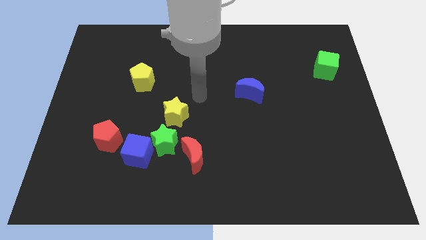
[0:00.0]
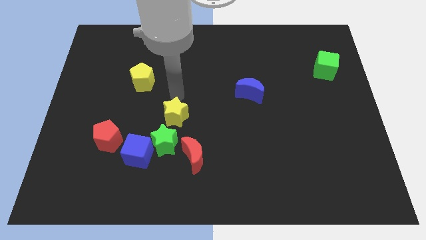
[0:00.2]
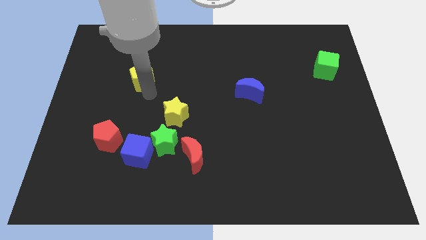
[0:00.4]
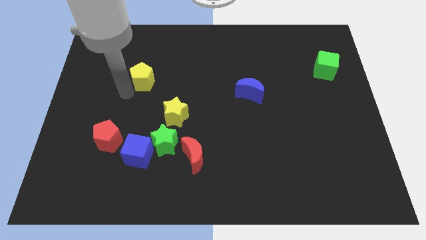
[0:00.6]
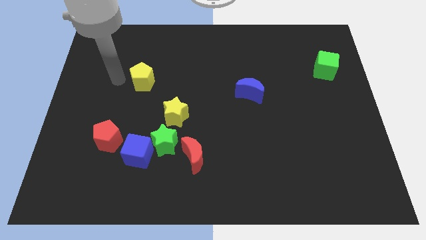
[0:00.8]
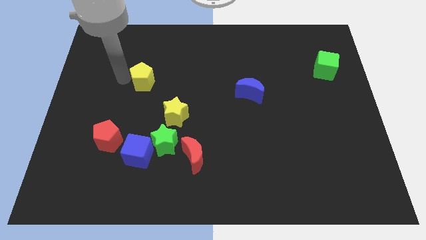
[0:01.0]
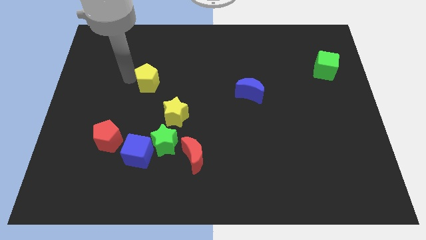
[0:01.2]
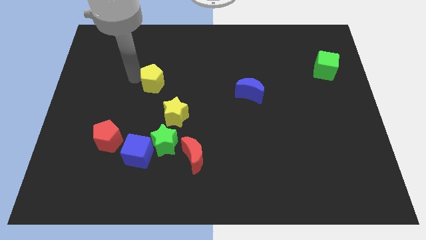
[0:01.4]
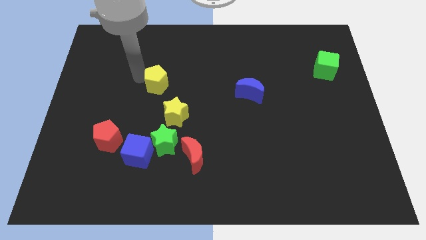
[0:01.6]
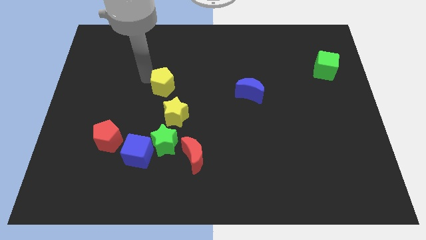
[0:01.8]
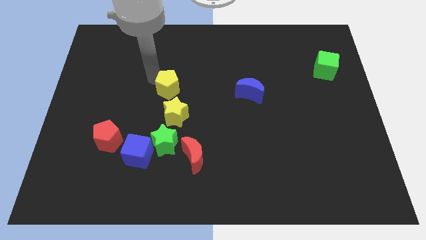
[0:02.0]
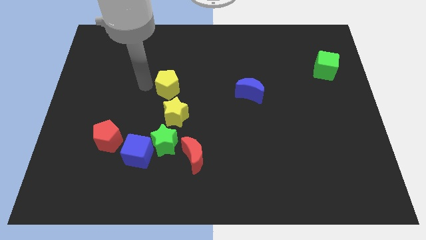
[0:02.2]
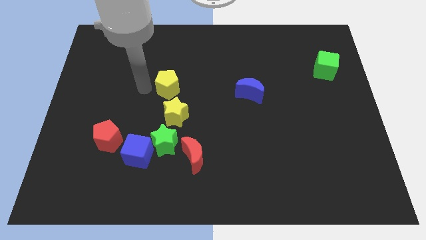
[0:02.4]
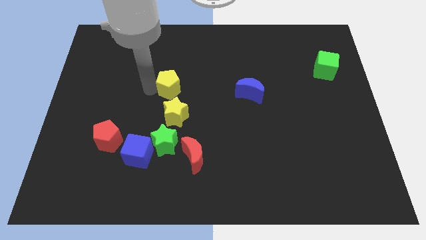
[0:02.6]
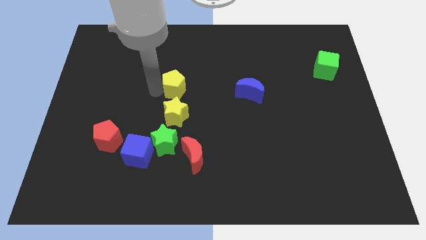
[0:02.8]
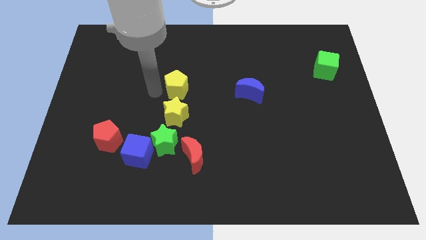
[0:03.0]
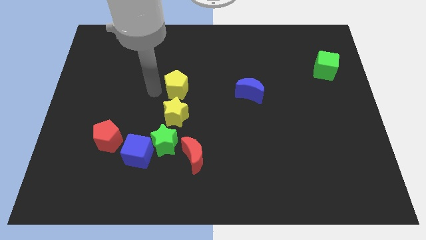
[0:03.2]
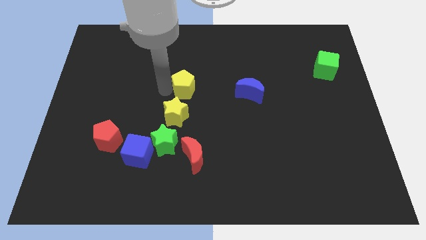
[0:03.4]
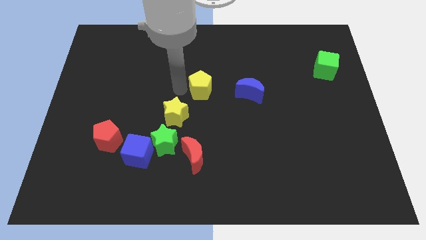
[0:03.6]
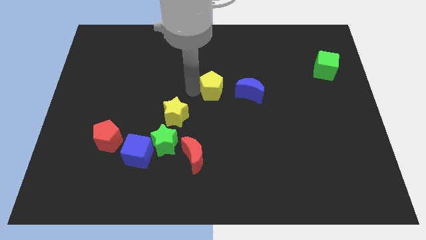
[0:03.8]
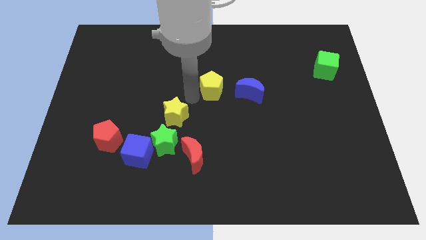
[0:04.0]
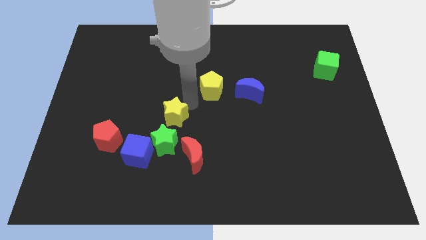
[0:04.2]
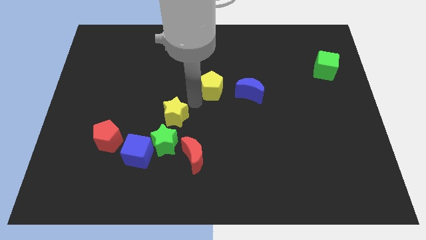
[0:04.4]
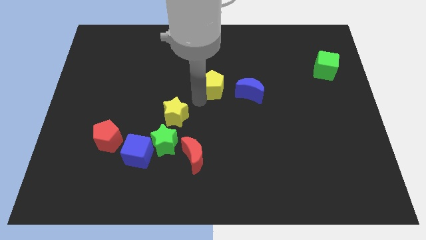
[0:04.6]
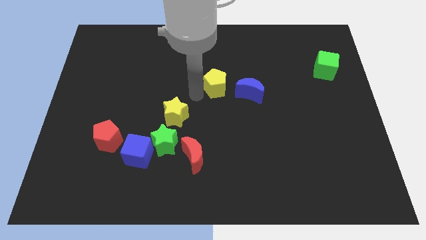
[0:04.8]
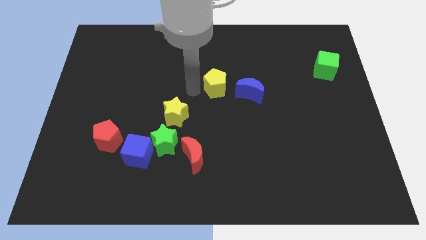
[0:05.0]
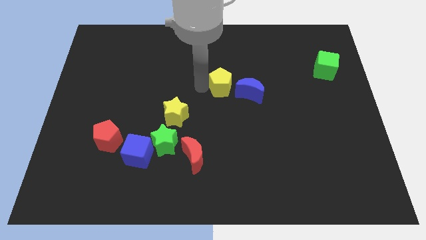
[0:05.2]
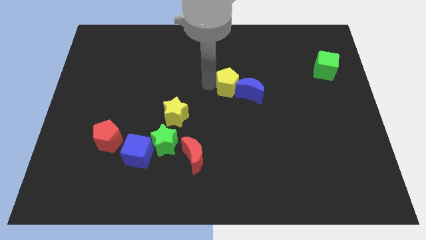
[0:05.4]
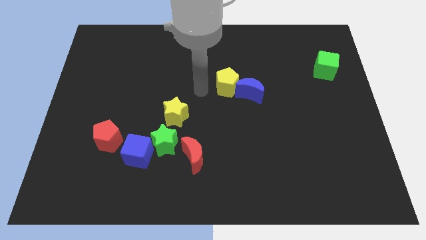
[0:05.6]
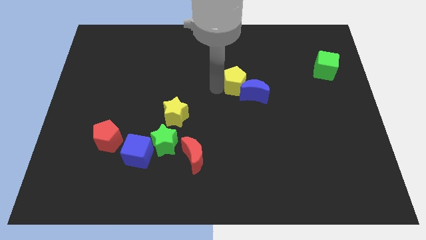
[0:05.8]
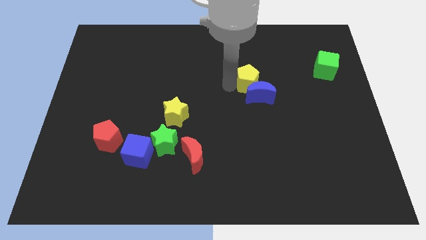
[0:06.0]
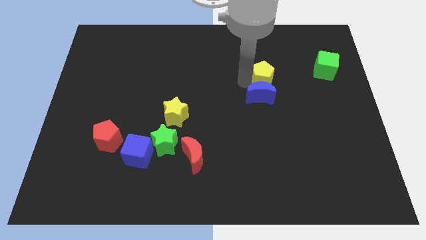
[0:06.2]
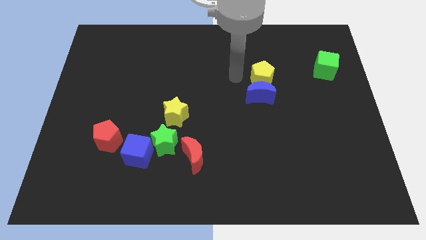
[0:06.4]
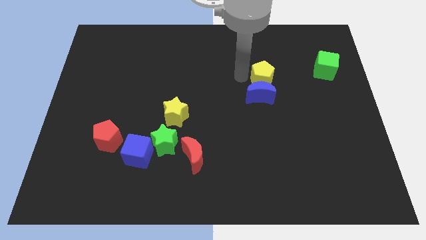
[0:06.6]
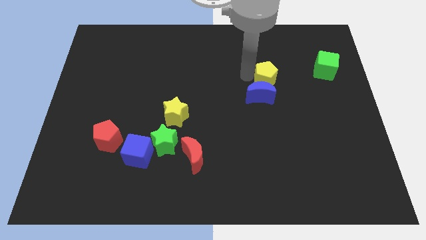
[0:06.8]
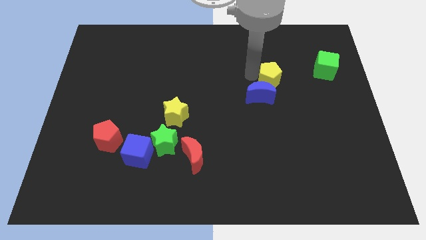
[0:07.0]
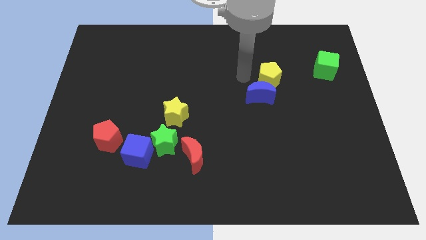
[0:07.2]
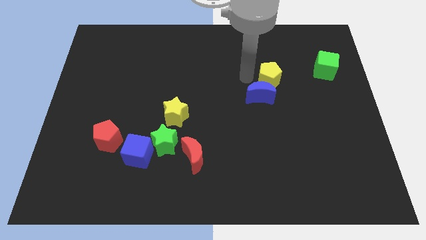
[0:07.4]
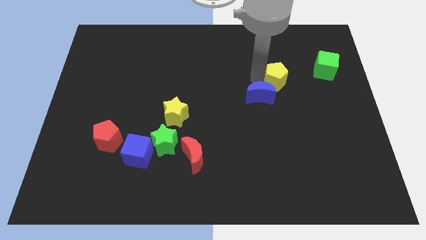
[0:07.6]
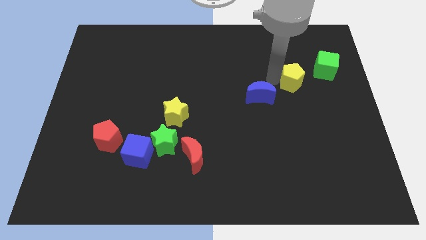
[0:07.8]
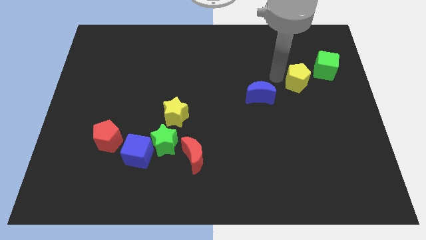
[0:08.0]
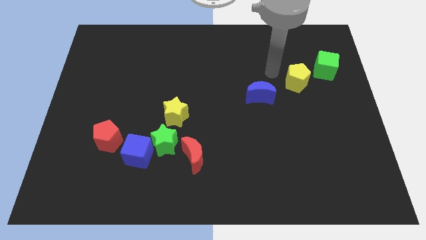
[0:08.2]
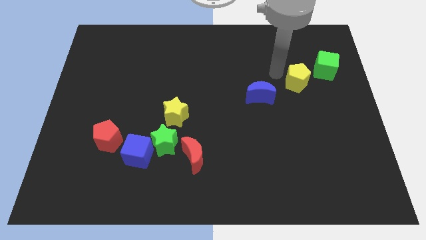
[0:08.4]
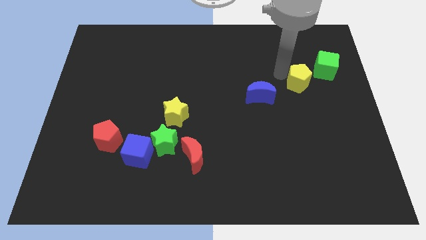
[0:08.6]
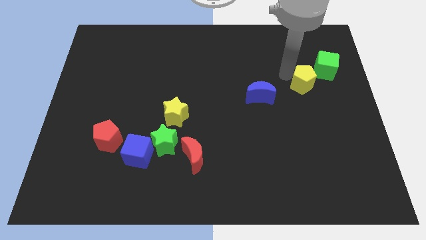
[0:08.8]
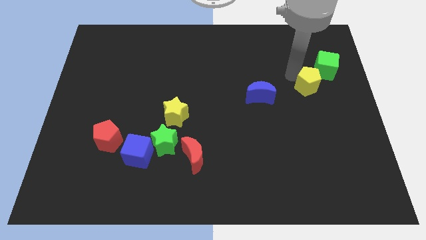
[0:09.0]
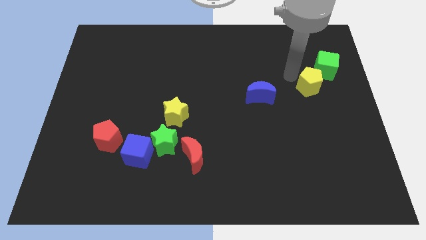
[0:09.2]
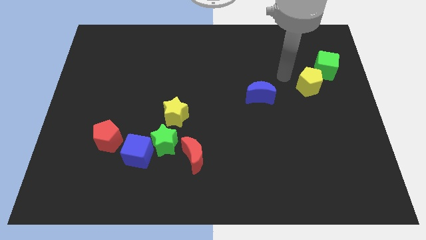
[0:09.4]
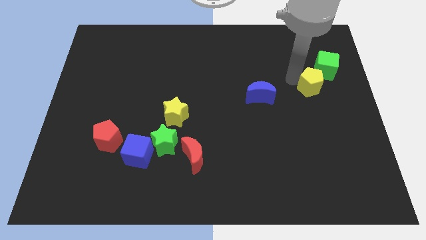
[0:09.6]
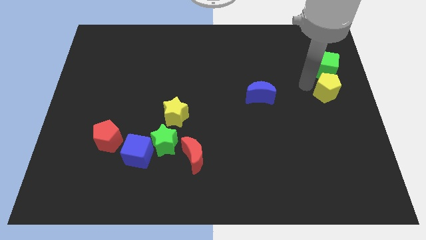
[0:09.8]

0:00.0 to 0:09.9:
put the yellow pentagon to the right side

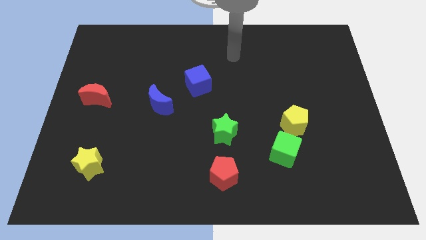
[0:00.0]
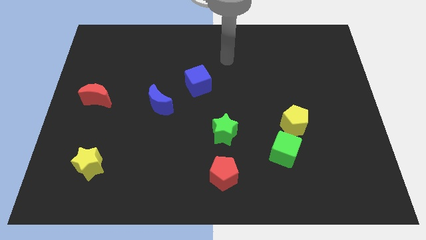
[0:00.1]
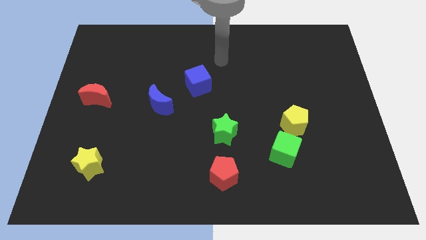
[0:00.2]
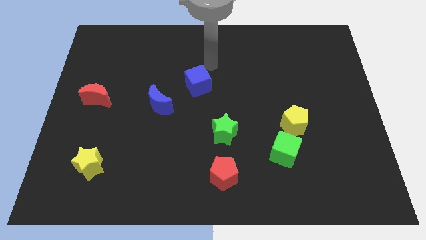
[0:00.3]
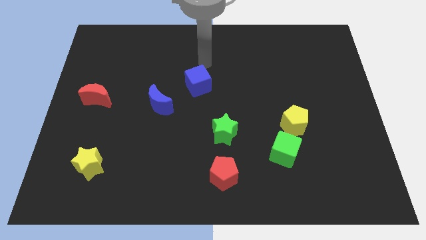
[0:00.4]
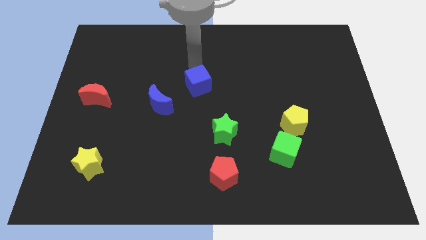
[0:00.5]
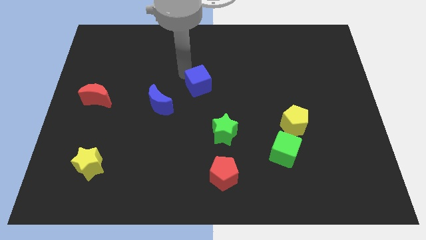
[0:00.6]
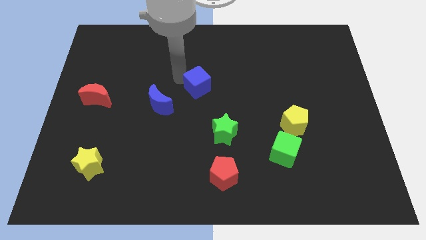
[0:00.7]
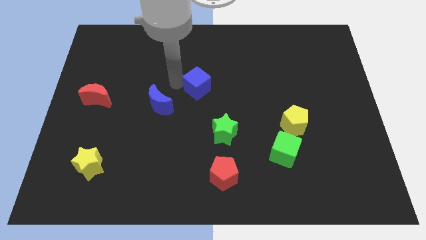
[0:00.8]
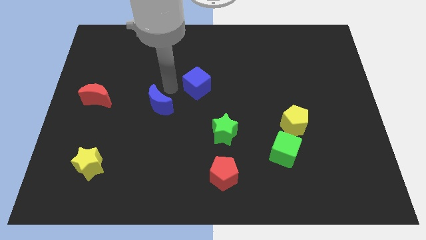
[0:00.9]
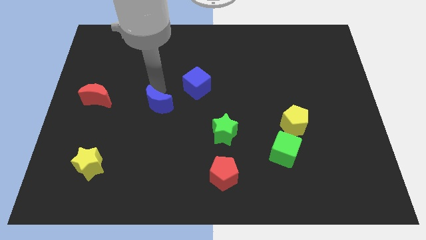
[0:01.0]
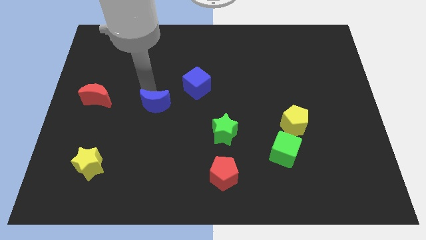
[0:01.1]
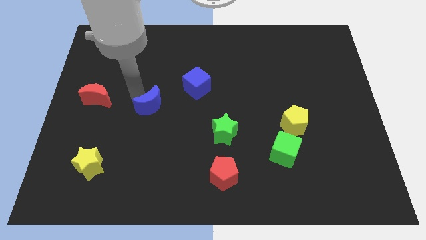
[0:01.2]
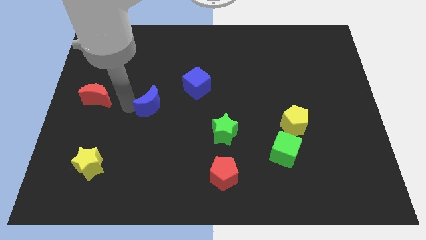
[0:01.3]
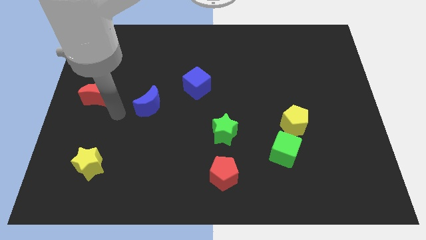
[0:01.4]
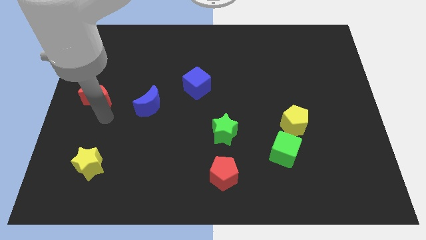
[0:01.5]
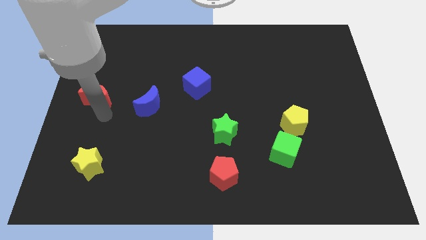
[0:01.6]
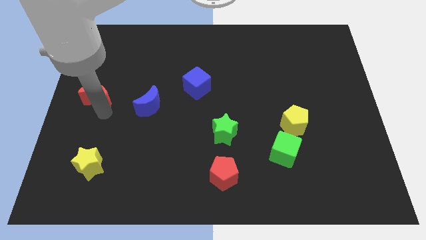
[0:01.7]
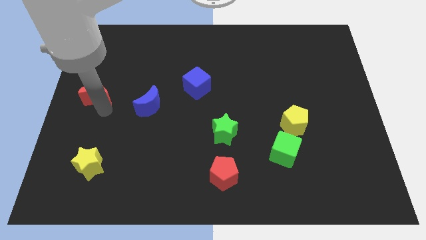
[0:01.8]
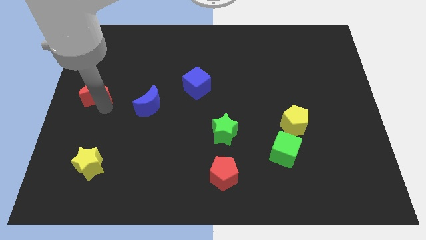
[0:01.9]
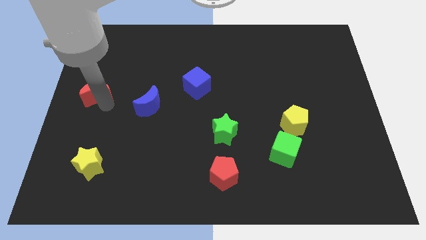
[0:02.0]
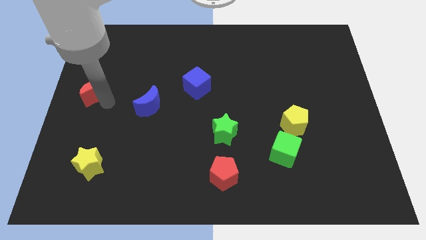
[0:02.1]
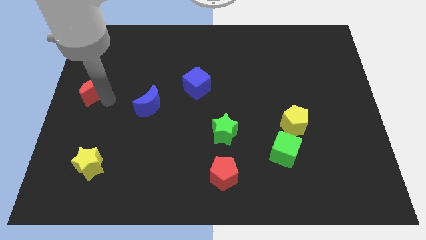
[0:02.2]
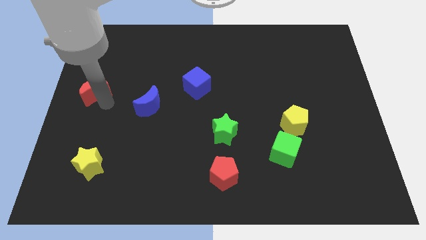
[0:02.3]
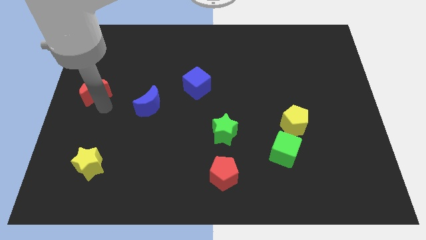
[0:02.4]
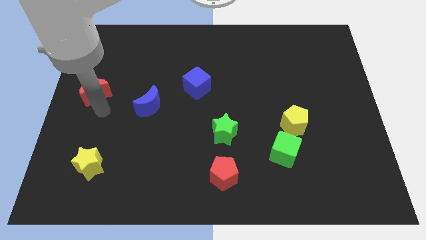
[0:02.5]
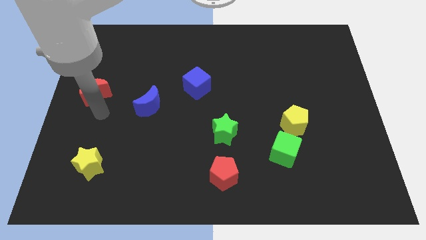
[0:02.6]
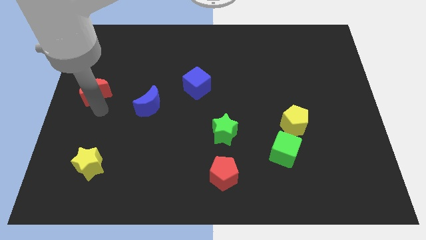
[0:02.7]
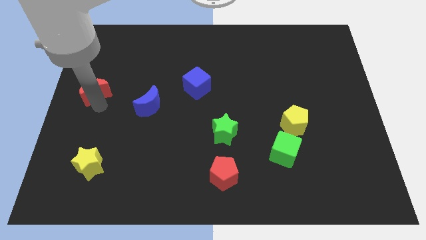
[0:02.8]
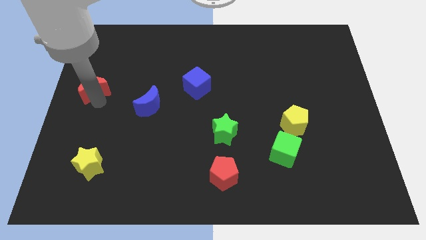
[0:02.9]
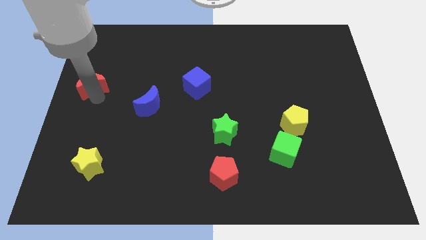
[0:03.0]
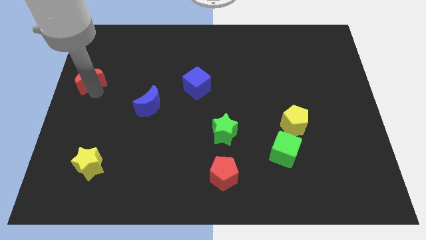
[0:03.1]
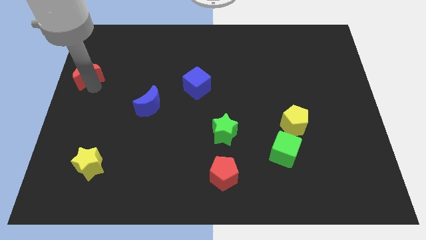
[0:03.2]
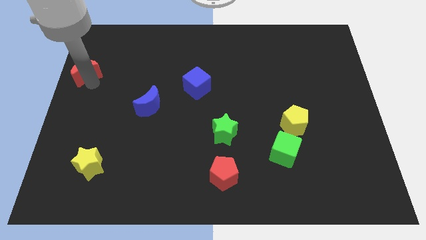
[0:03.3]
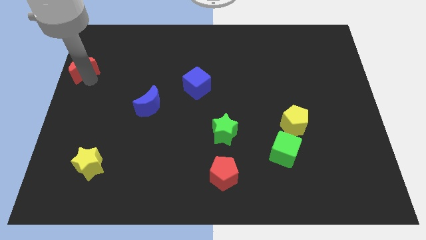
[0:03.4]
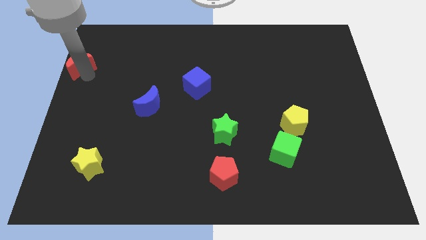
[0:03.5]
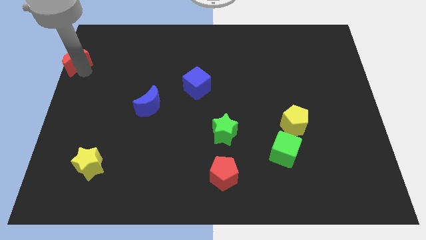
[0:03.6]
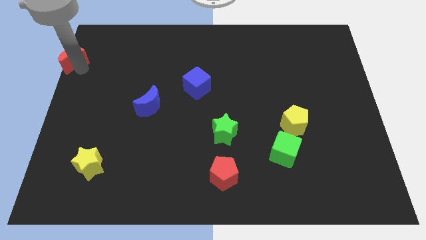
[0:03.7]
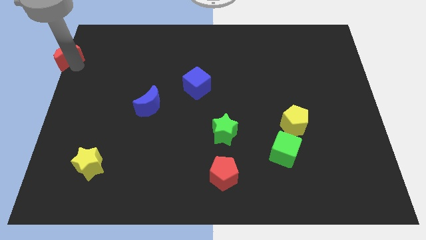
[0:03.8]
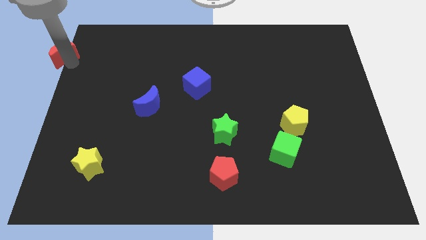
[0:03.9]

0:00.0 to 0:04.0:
push the red moon to the top left corner
